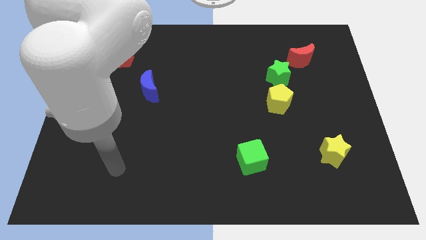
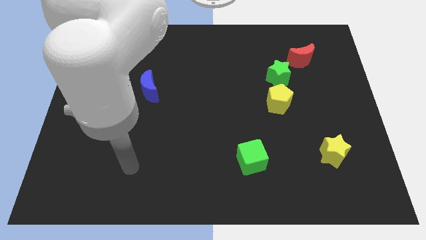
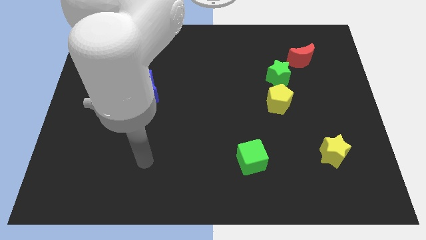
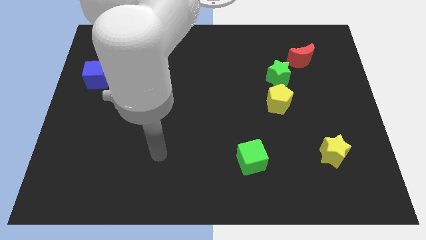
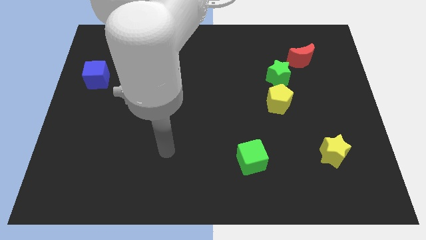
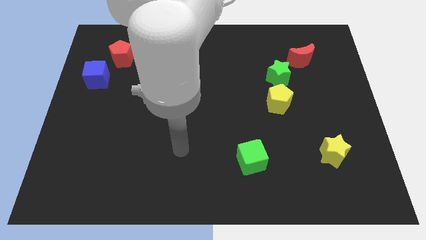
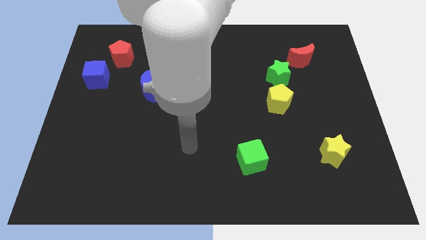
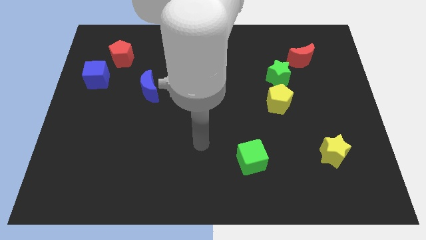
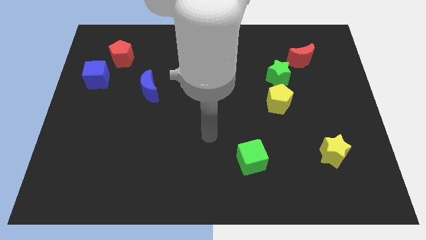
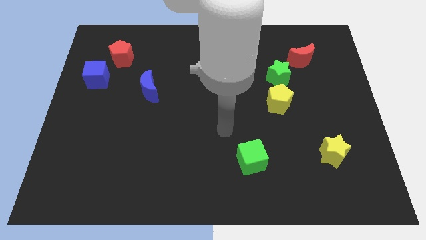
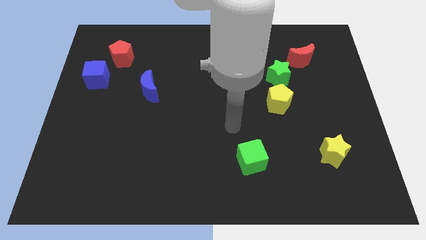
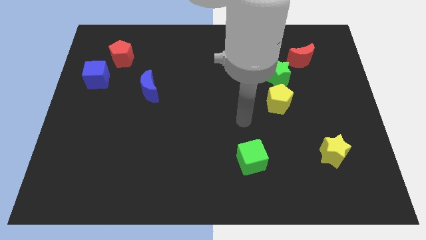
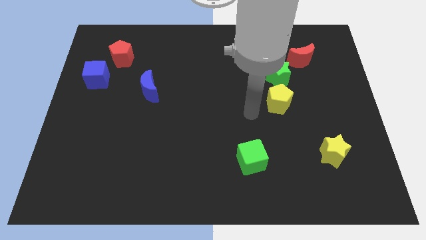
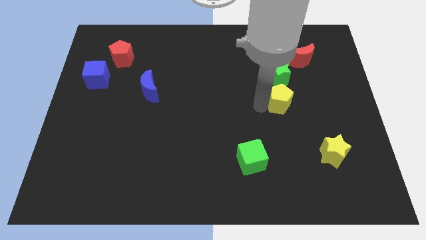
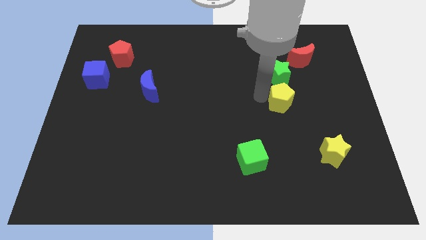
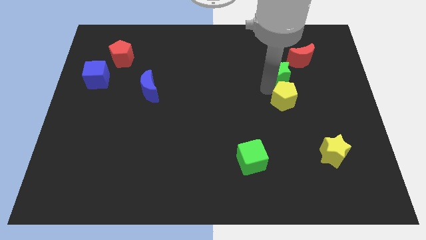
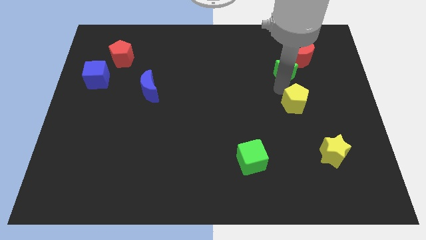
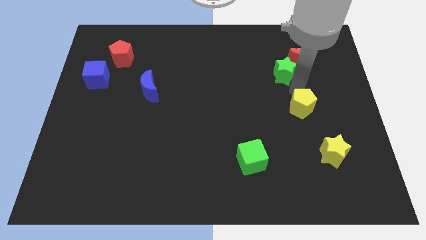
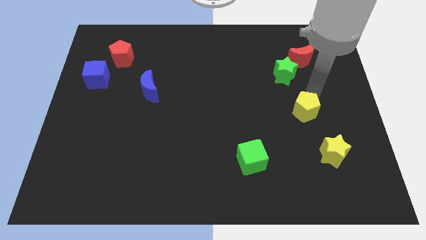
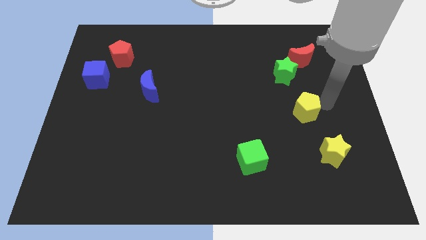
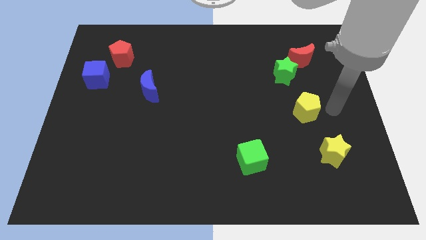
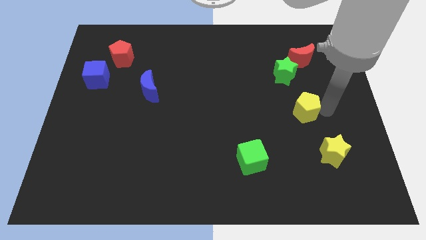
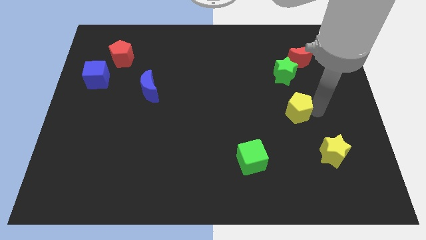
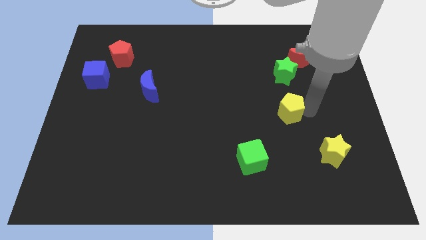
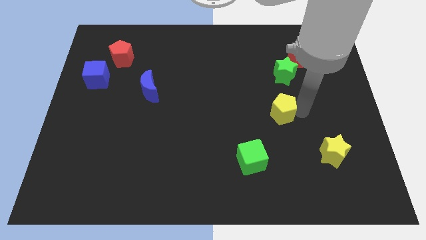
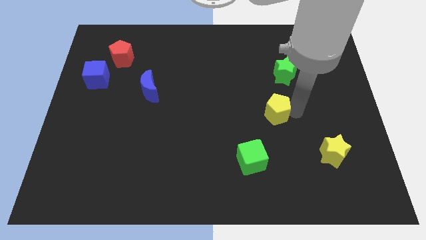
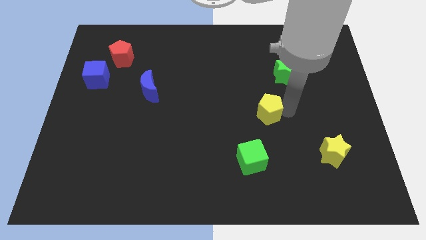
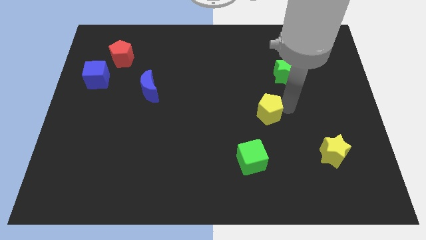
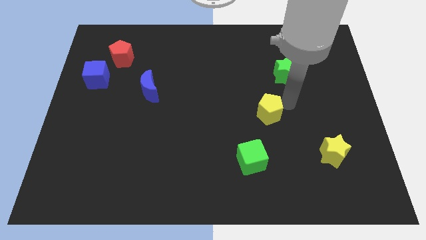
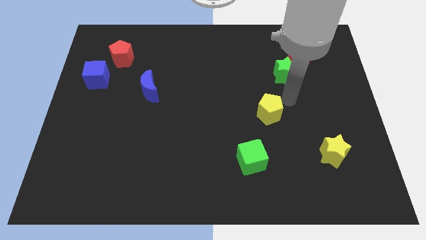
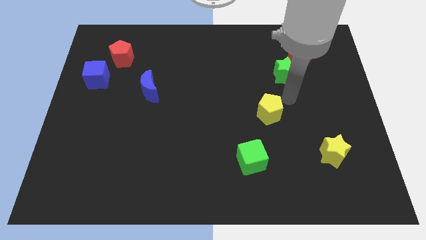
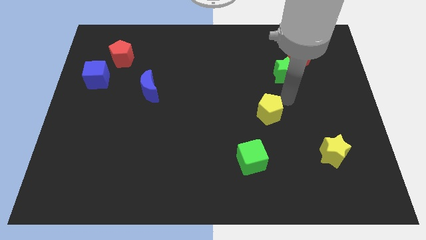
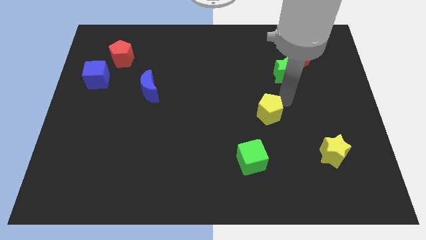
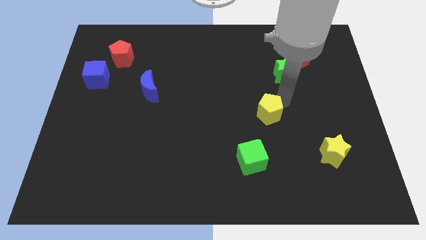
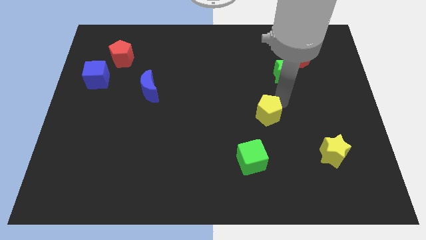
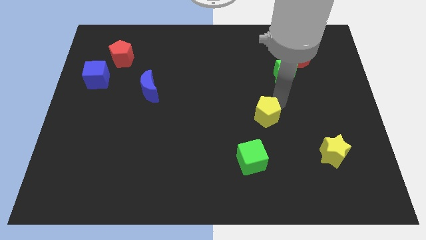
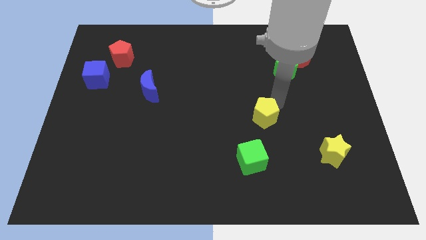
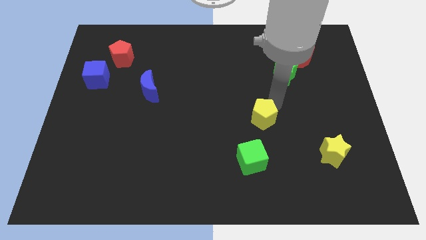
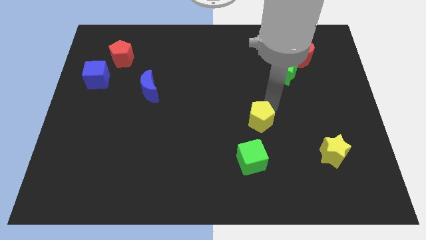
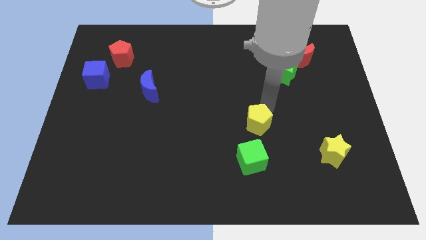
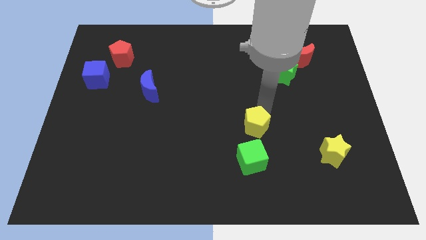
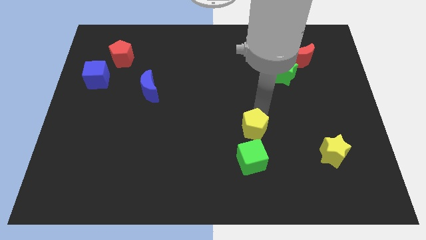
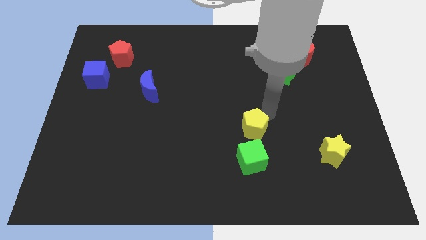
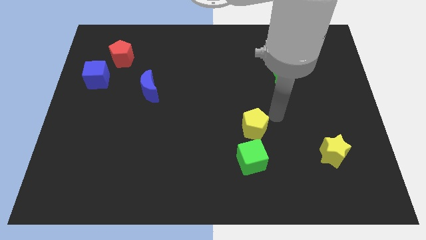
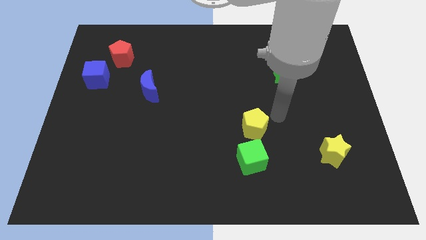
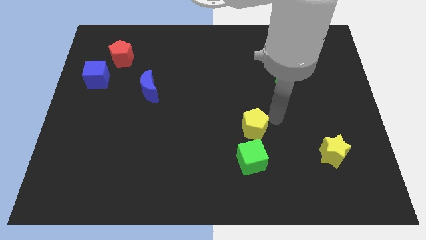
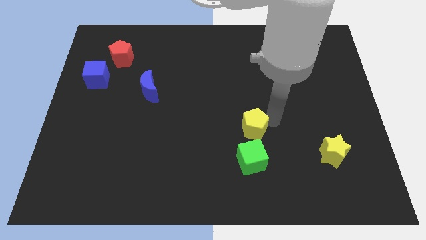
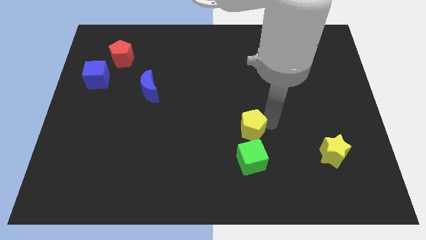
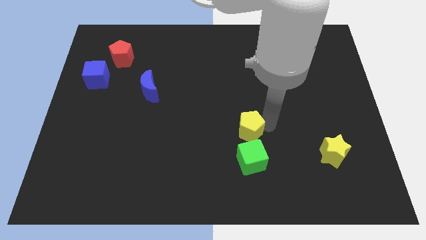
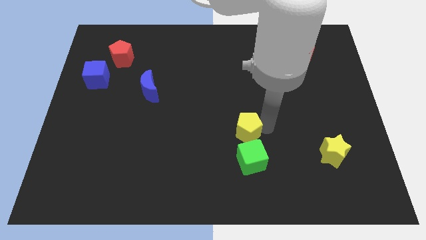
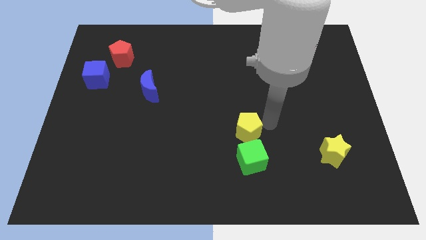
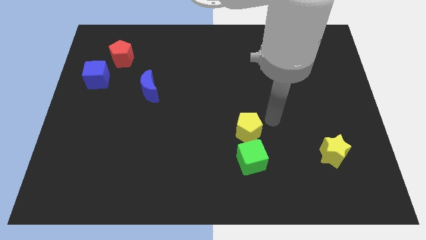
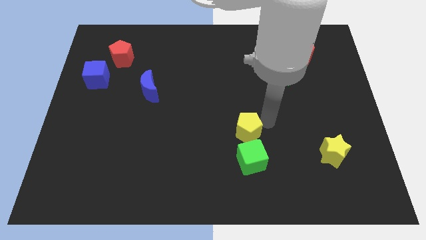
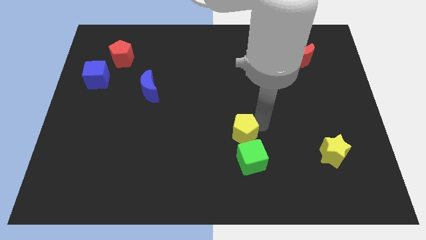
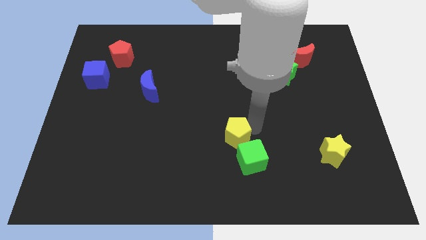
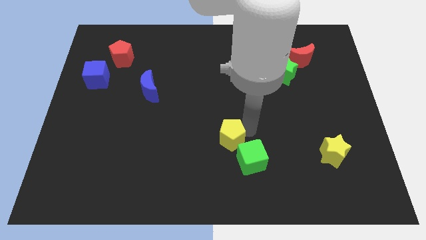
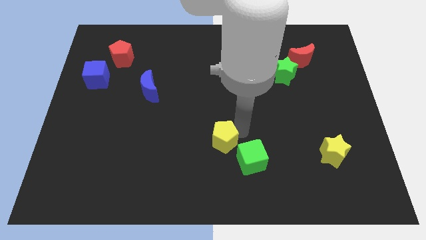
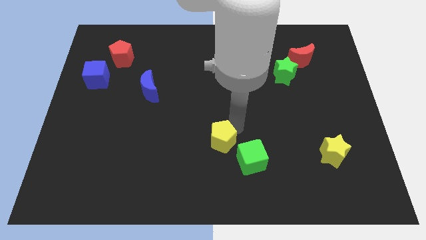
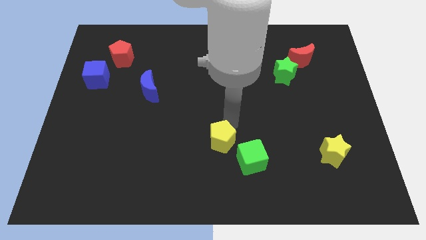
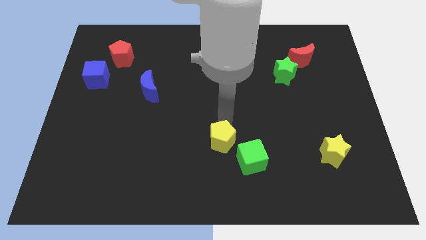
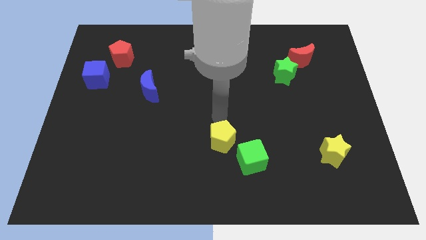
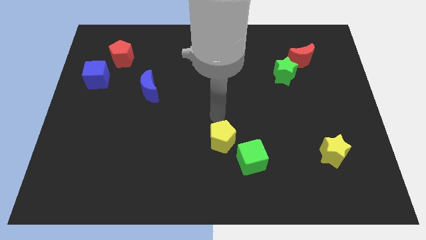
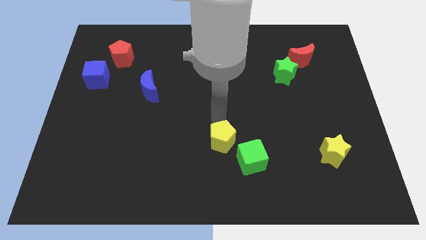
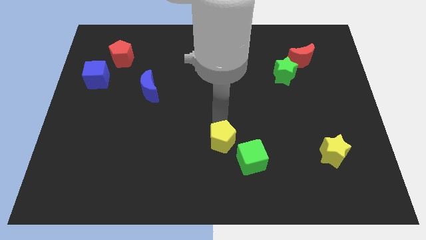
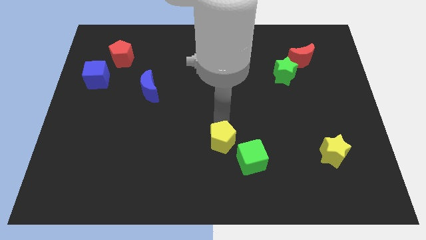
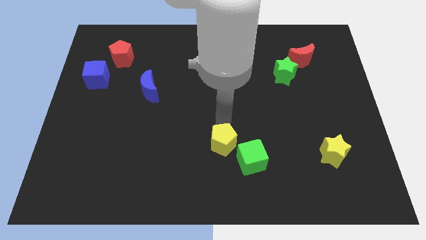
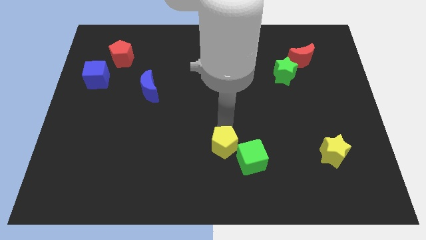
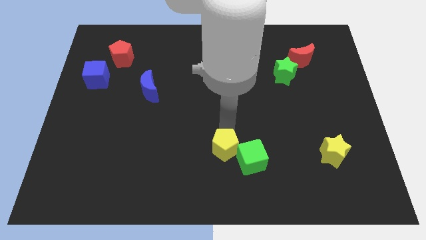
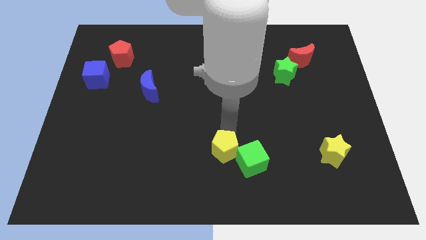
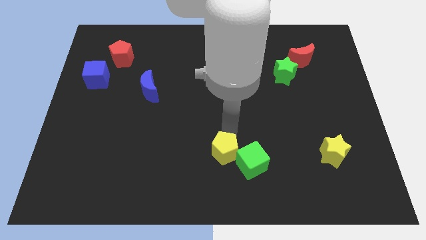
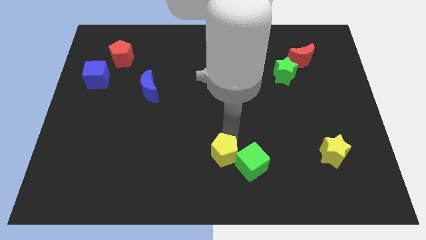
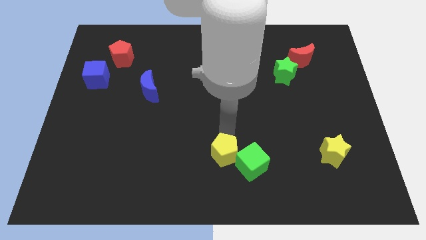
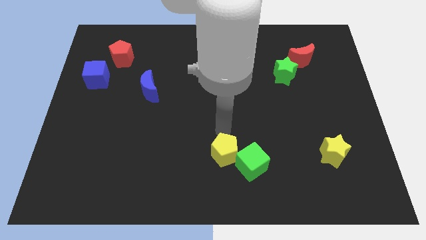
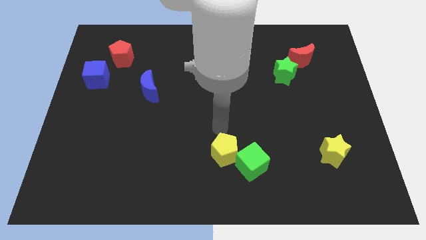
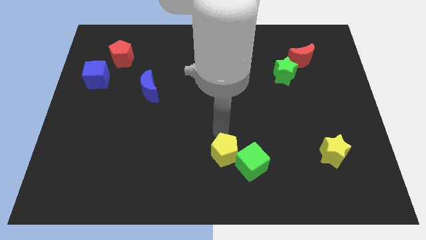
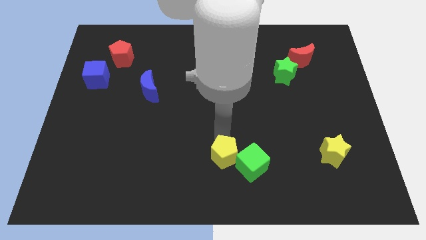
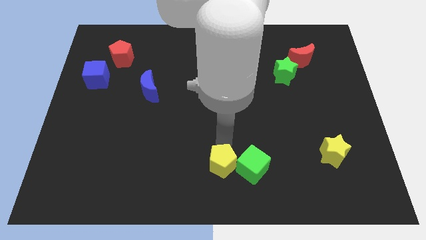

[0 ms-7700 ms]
move the yellow pentagon to the bottom left of the green cube
